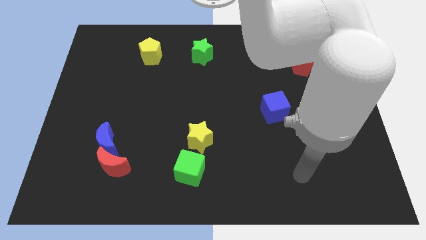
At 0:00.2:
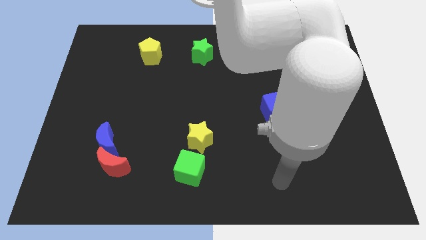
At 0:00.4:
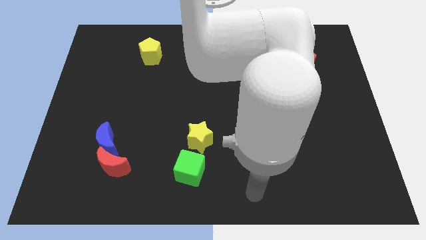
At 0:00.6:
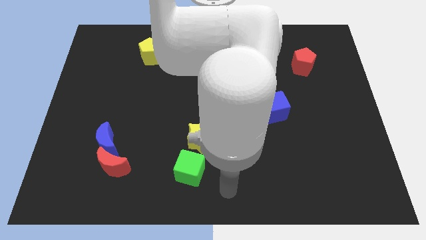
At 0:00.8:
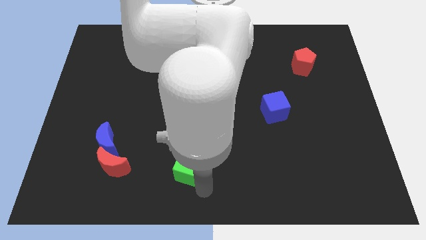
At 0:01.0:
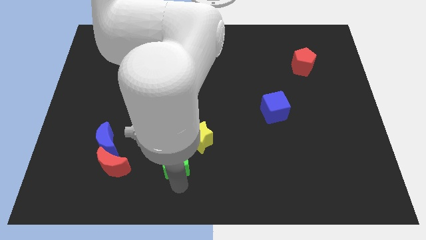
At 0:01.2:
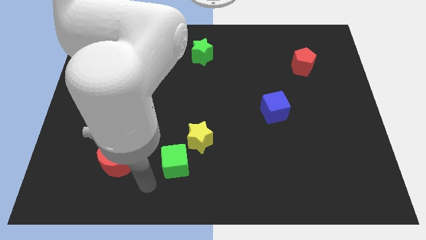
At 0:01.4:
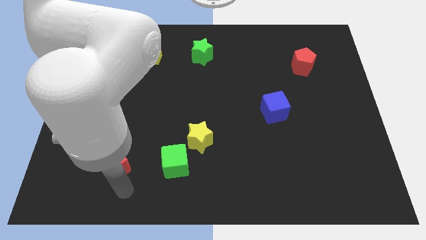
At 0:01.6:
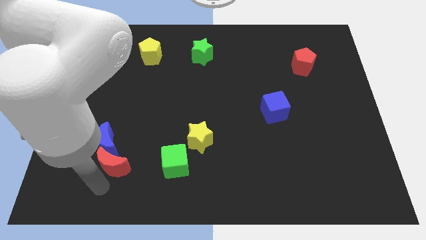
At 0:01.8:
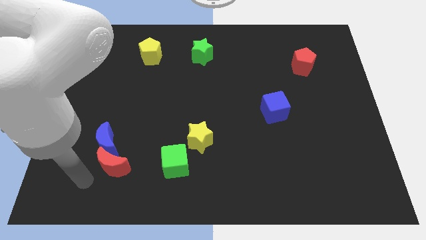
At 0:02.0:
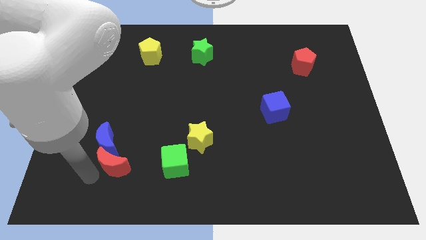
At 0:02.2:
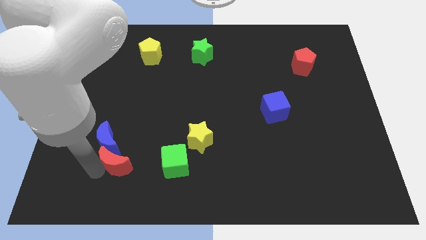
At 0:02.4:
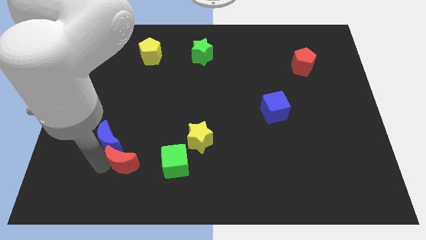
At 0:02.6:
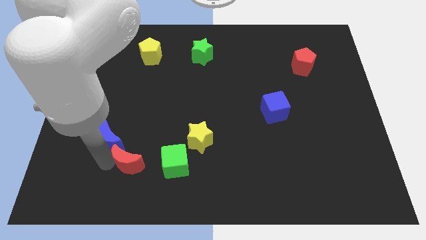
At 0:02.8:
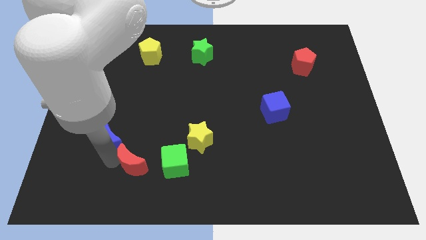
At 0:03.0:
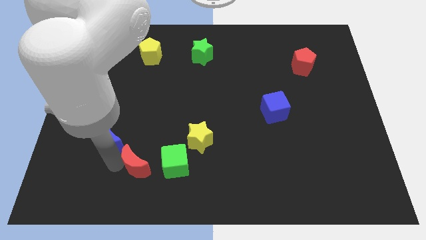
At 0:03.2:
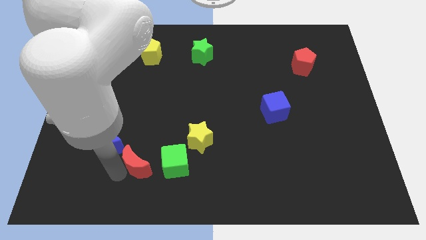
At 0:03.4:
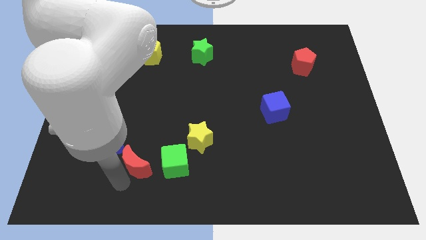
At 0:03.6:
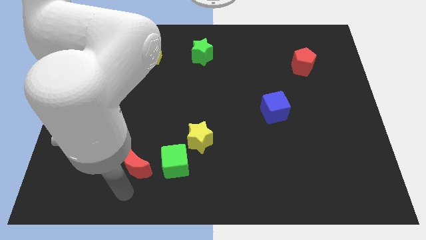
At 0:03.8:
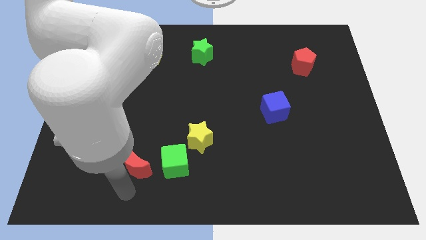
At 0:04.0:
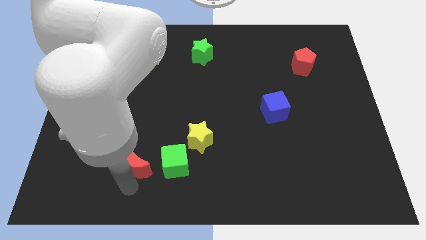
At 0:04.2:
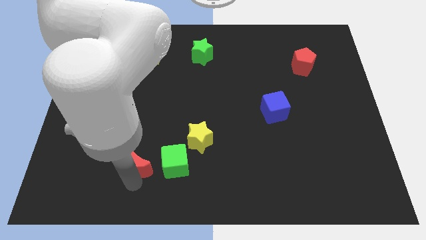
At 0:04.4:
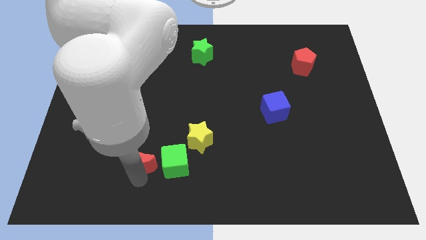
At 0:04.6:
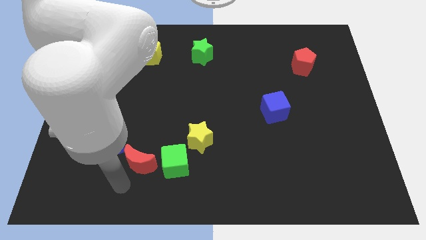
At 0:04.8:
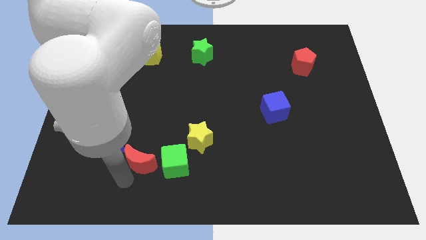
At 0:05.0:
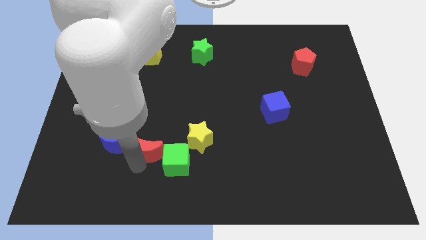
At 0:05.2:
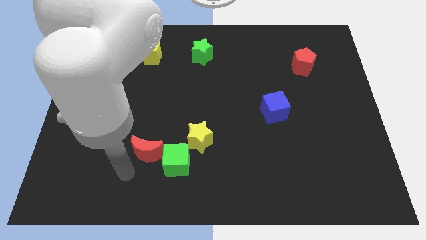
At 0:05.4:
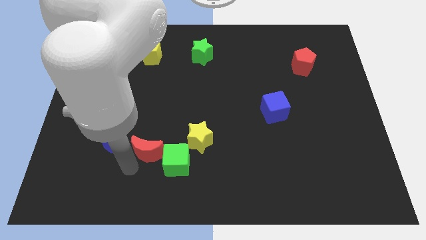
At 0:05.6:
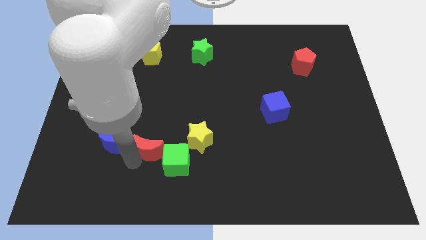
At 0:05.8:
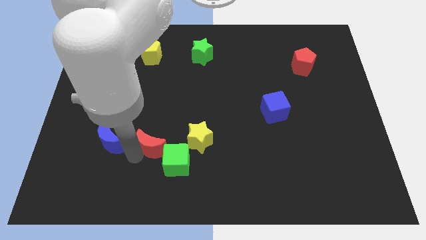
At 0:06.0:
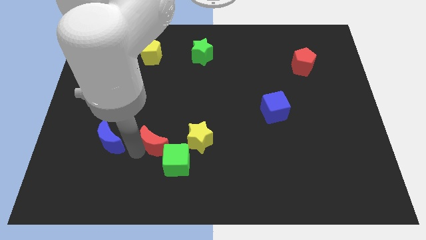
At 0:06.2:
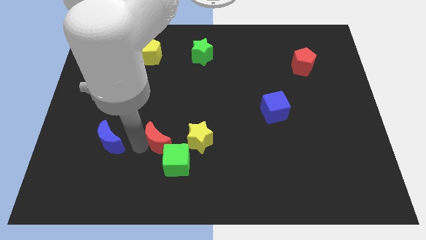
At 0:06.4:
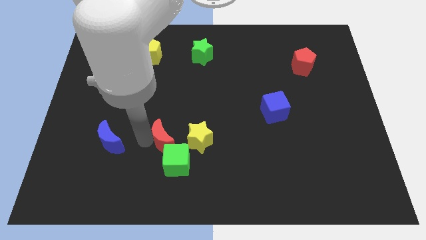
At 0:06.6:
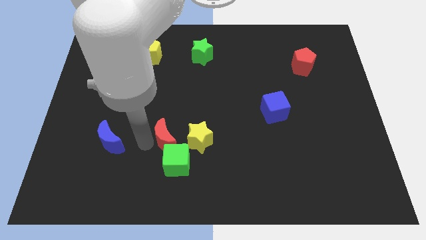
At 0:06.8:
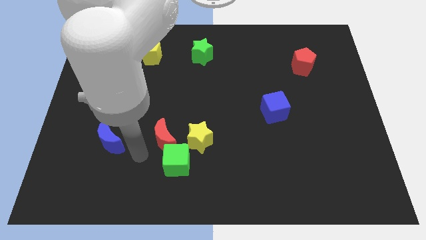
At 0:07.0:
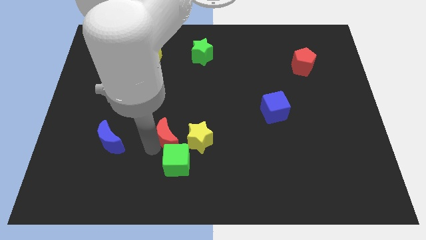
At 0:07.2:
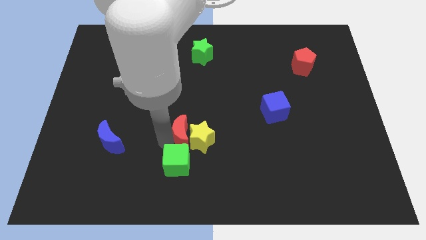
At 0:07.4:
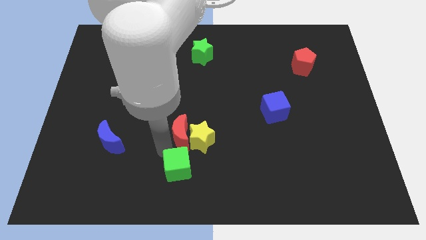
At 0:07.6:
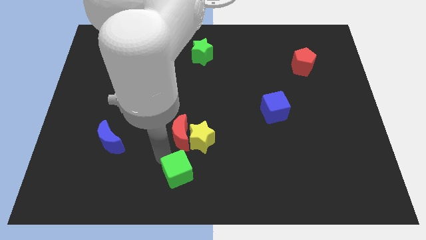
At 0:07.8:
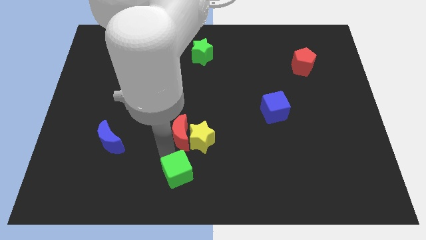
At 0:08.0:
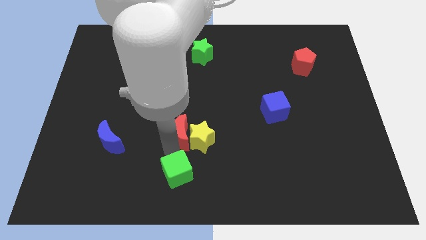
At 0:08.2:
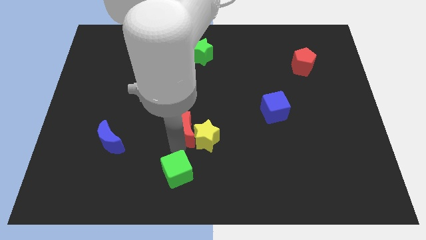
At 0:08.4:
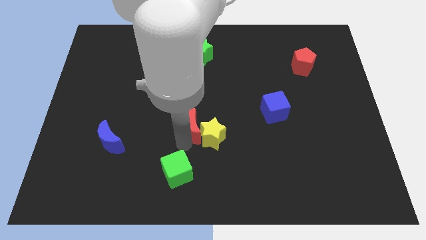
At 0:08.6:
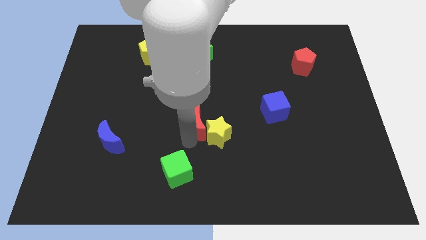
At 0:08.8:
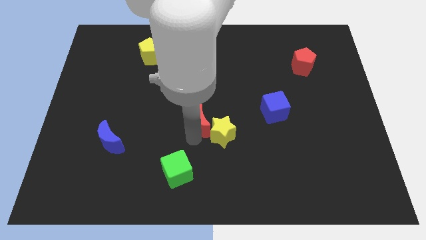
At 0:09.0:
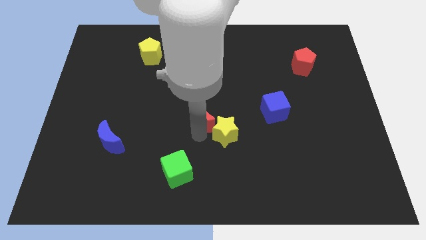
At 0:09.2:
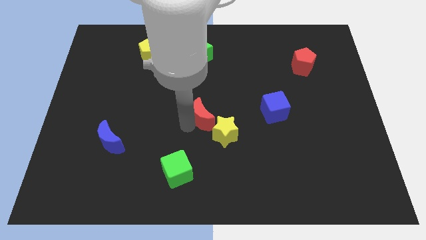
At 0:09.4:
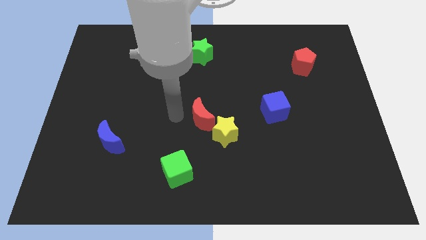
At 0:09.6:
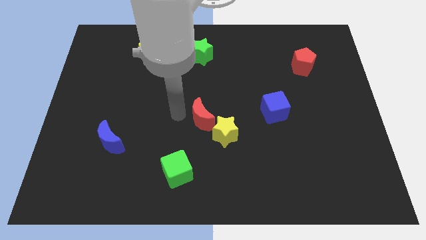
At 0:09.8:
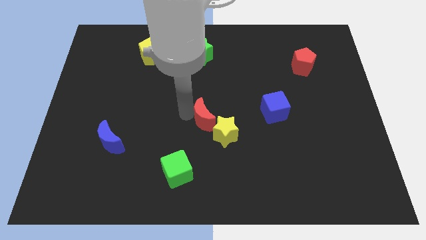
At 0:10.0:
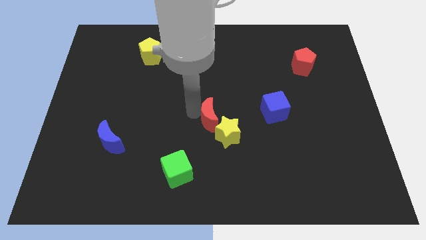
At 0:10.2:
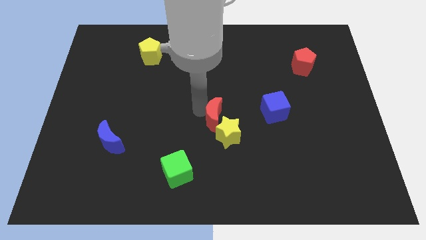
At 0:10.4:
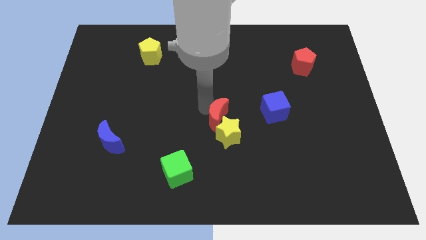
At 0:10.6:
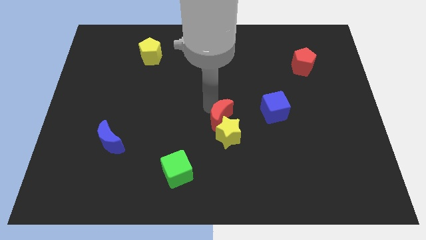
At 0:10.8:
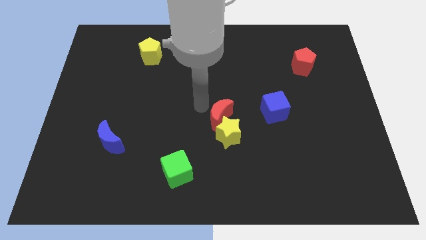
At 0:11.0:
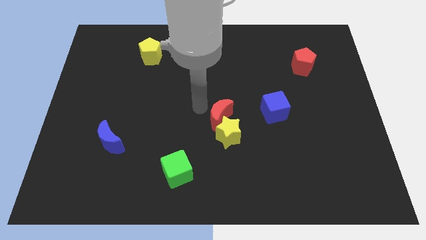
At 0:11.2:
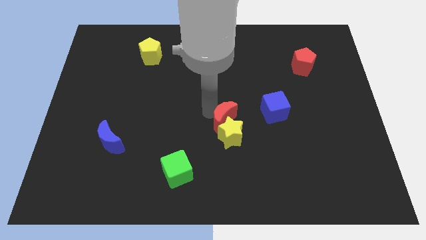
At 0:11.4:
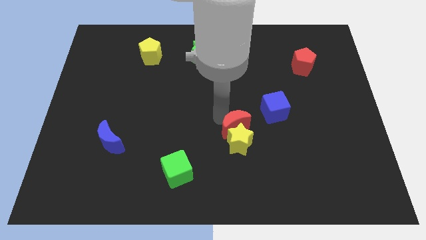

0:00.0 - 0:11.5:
push the red moon to the bottom left of the blue cube

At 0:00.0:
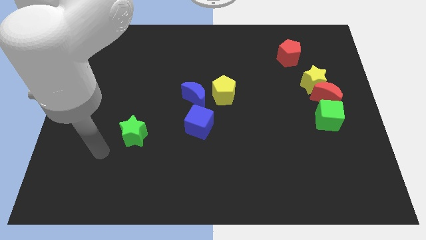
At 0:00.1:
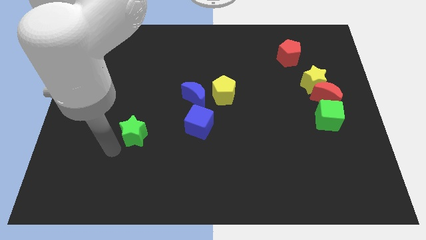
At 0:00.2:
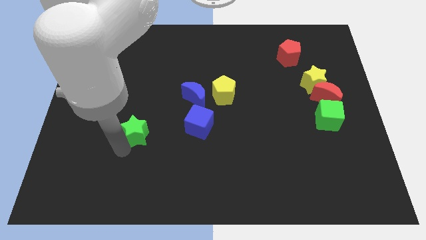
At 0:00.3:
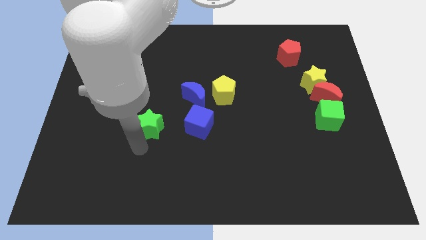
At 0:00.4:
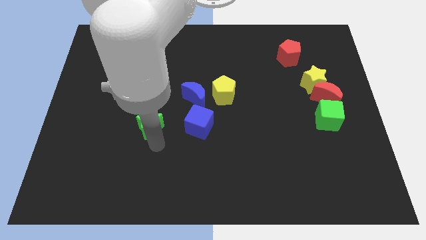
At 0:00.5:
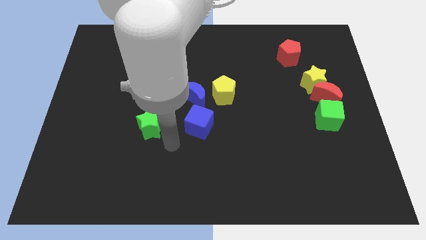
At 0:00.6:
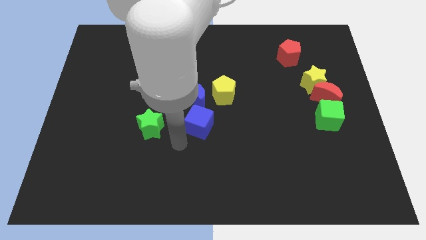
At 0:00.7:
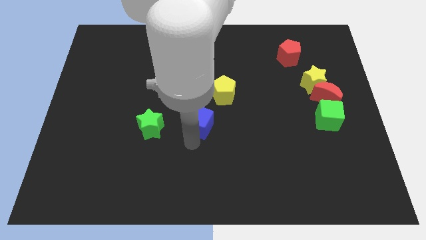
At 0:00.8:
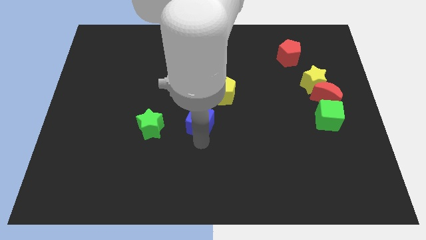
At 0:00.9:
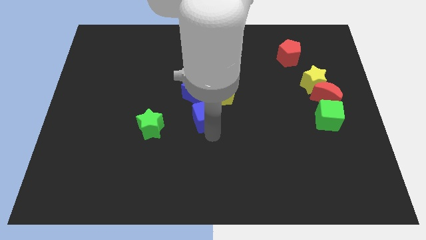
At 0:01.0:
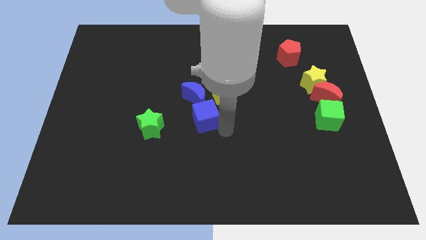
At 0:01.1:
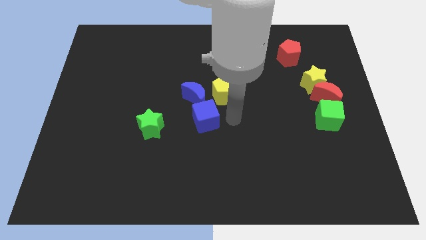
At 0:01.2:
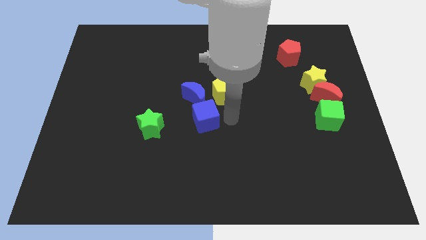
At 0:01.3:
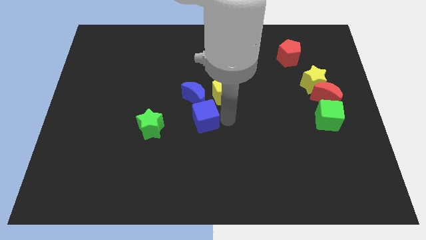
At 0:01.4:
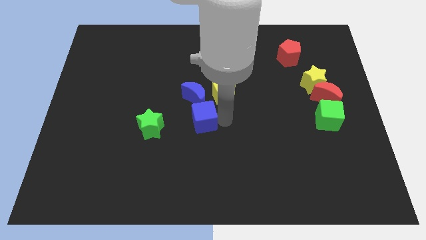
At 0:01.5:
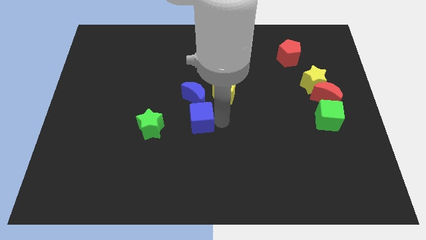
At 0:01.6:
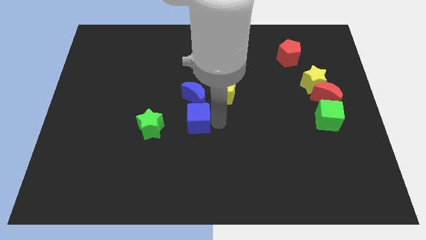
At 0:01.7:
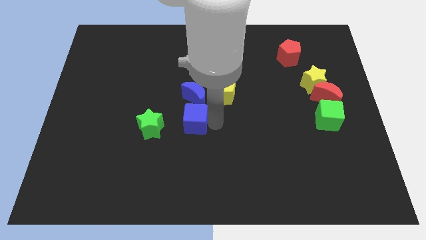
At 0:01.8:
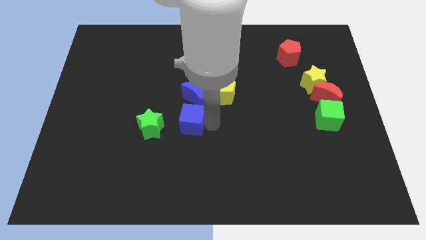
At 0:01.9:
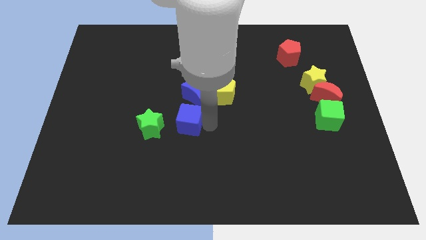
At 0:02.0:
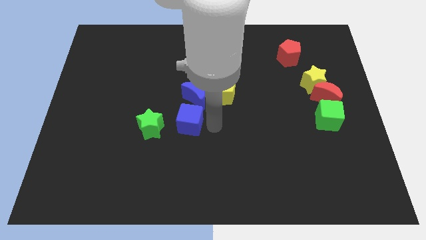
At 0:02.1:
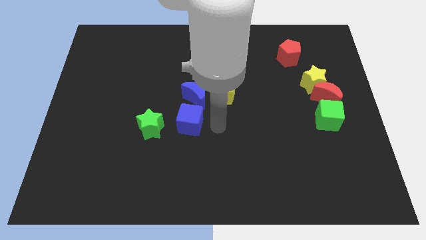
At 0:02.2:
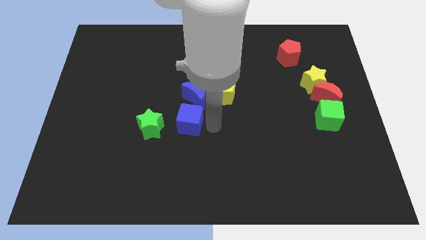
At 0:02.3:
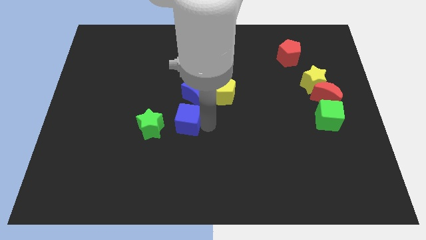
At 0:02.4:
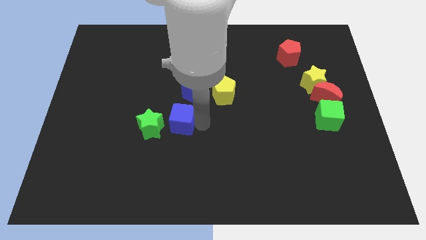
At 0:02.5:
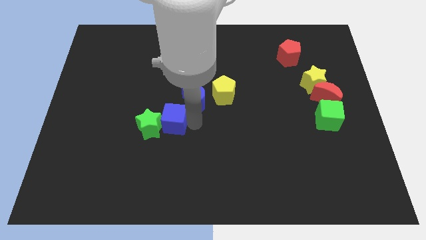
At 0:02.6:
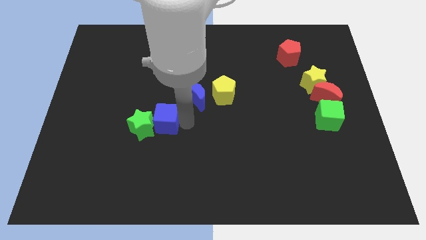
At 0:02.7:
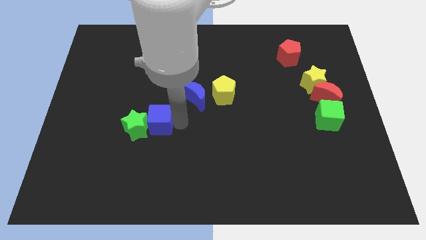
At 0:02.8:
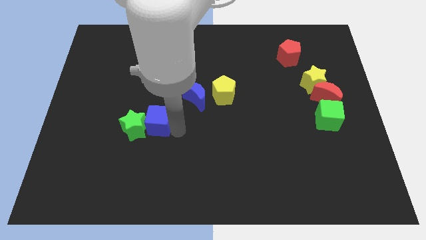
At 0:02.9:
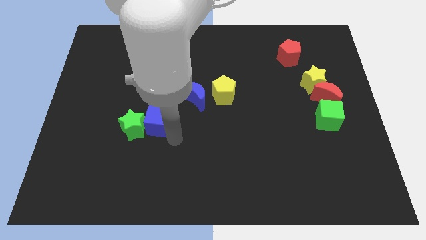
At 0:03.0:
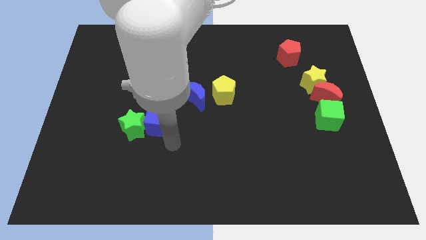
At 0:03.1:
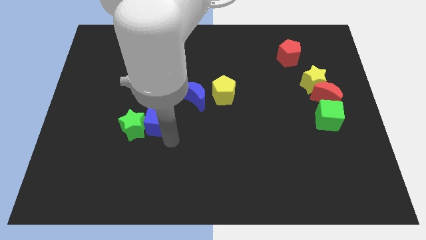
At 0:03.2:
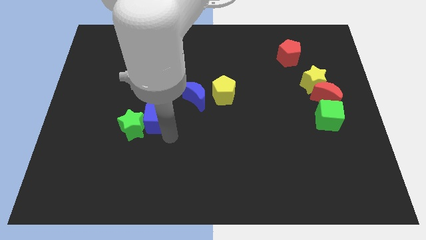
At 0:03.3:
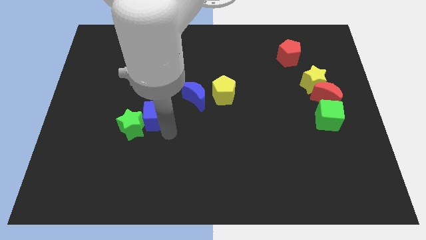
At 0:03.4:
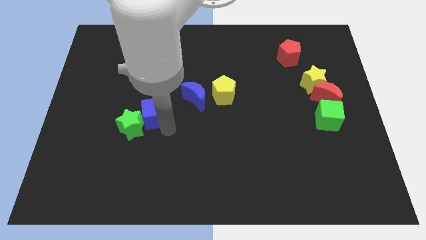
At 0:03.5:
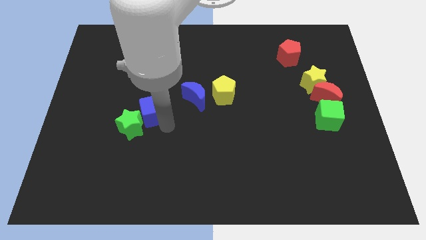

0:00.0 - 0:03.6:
push the blue cube above the green star
